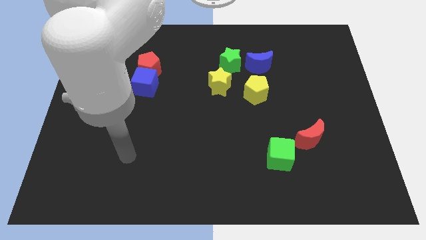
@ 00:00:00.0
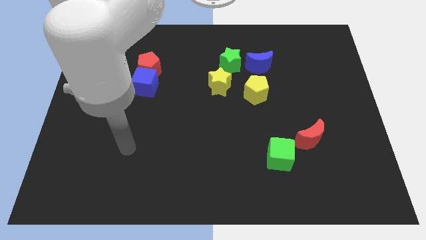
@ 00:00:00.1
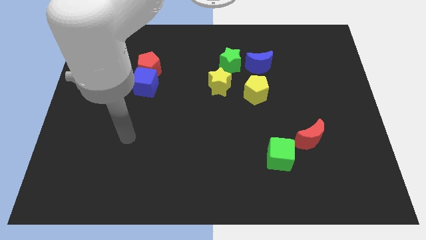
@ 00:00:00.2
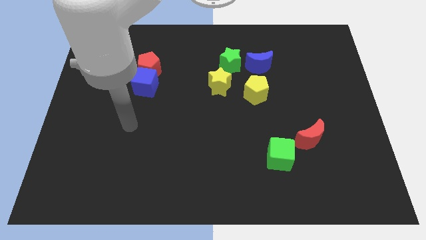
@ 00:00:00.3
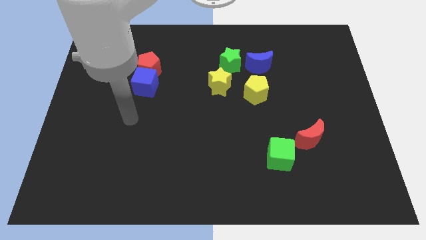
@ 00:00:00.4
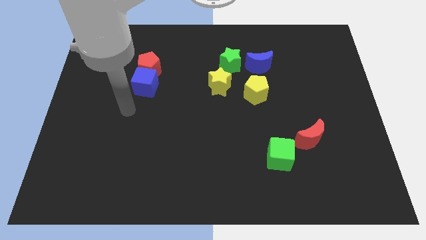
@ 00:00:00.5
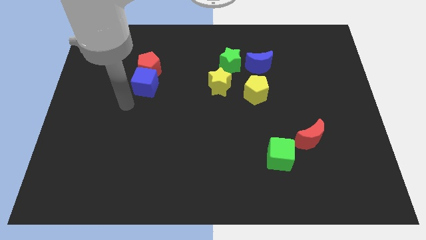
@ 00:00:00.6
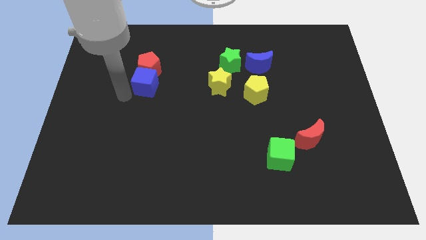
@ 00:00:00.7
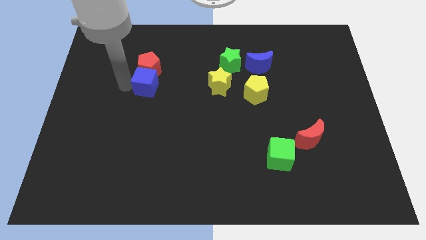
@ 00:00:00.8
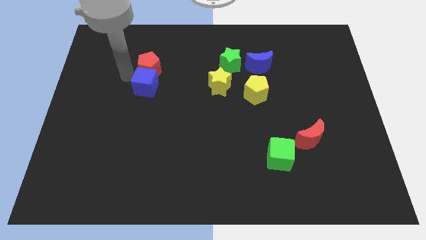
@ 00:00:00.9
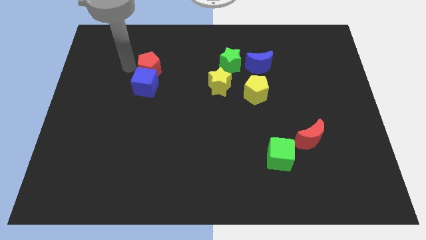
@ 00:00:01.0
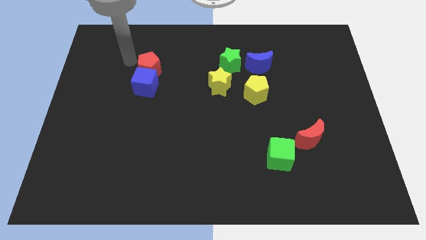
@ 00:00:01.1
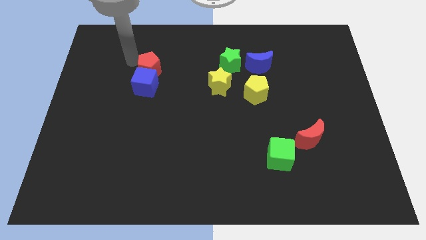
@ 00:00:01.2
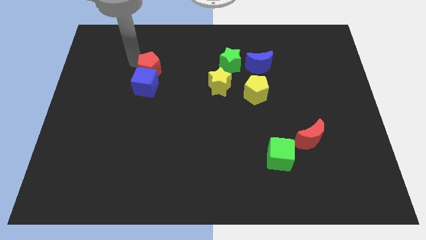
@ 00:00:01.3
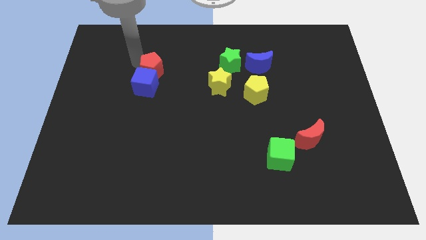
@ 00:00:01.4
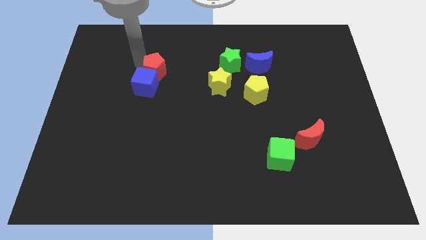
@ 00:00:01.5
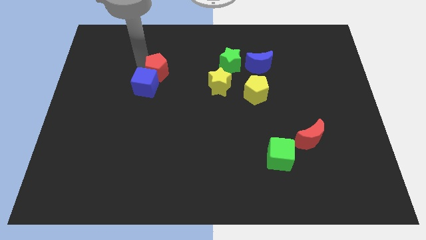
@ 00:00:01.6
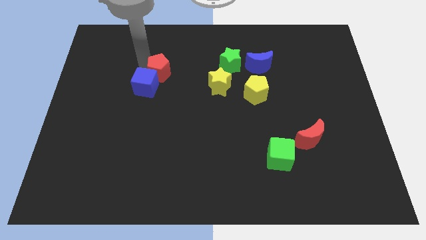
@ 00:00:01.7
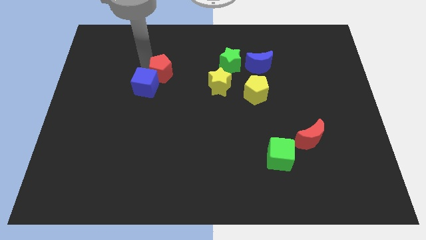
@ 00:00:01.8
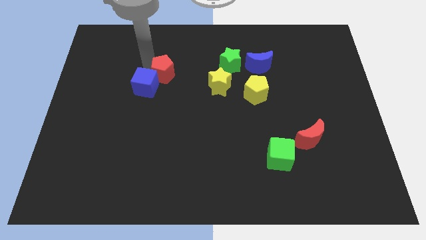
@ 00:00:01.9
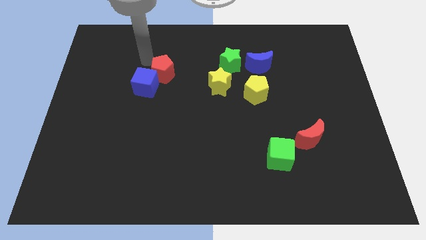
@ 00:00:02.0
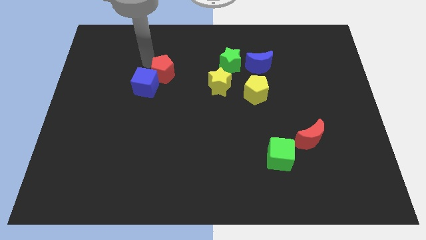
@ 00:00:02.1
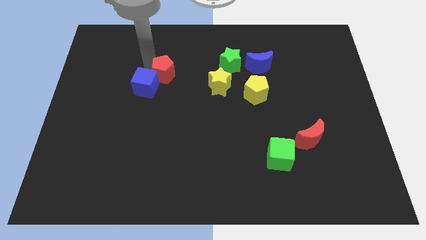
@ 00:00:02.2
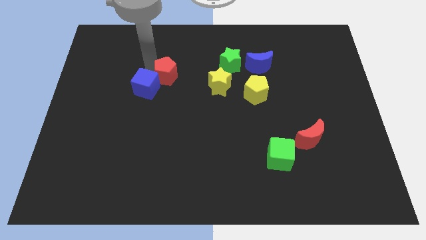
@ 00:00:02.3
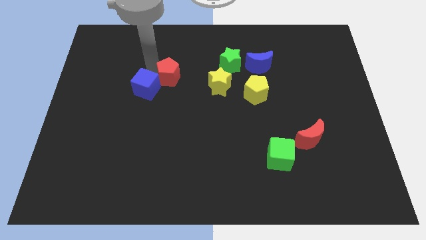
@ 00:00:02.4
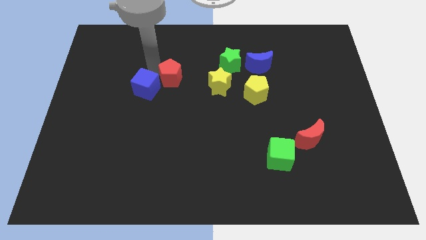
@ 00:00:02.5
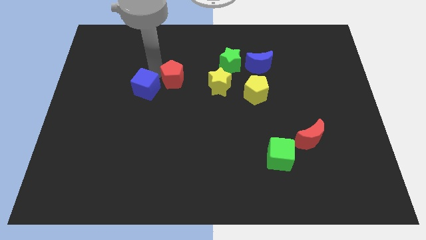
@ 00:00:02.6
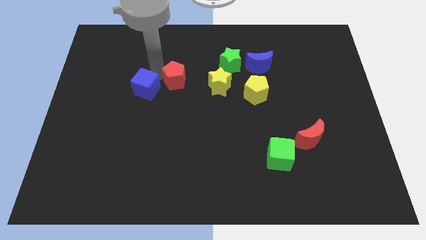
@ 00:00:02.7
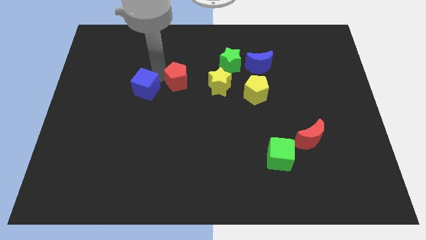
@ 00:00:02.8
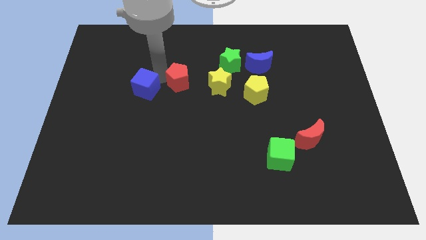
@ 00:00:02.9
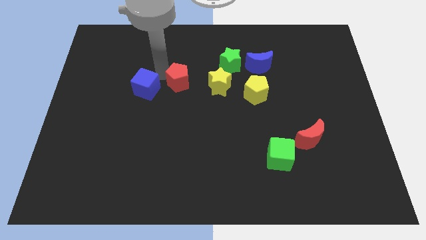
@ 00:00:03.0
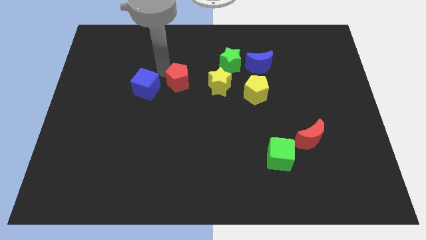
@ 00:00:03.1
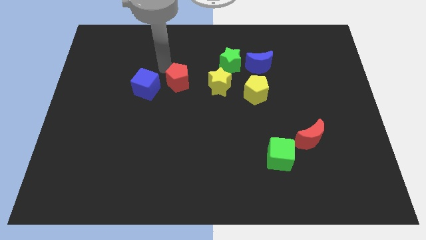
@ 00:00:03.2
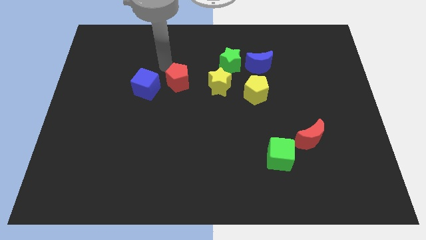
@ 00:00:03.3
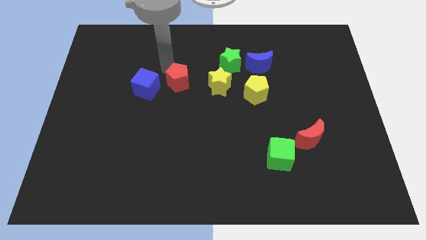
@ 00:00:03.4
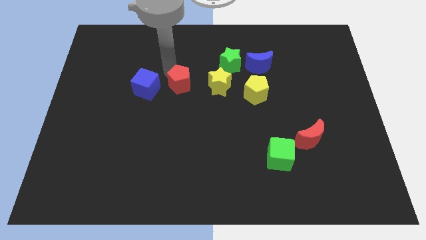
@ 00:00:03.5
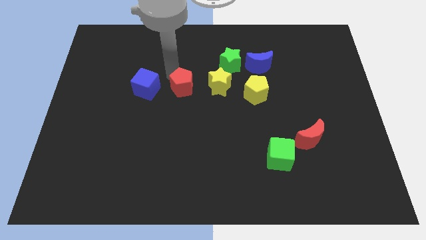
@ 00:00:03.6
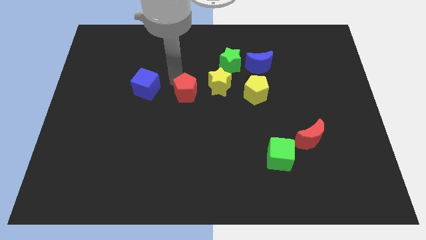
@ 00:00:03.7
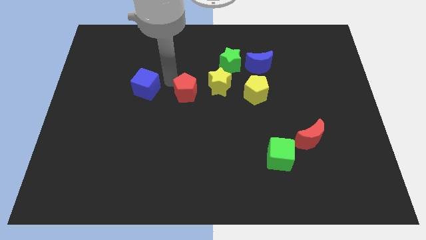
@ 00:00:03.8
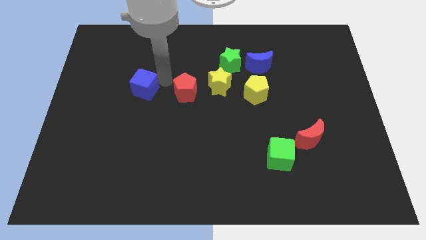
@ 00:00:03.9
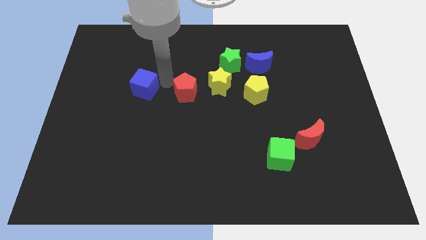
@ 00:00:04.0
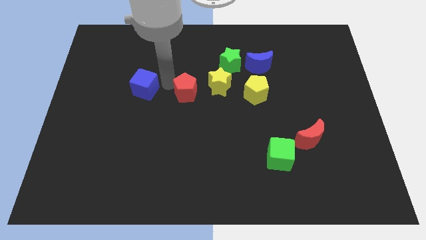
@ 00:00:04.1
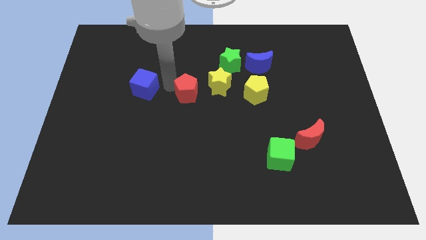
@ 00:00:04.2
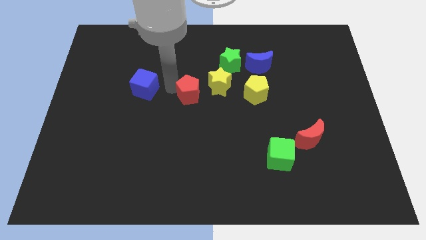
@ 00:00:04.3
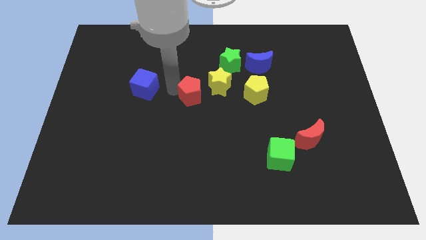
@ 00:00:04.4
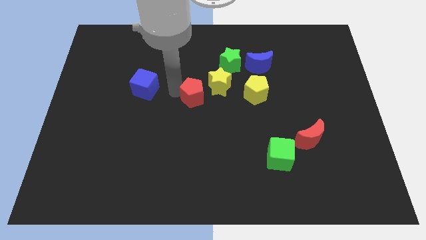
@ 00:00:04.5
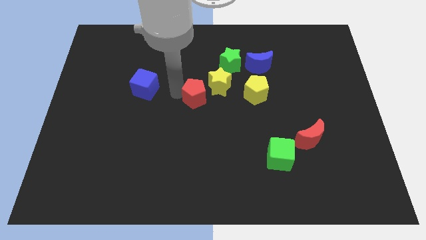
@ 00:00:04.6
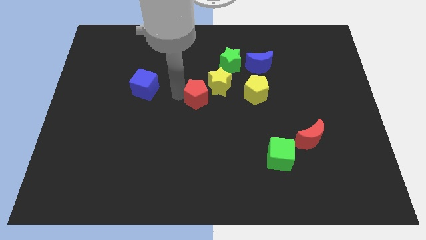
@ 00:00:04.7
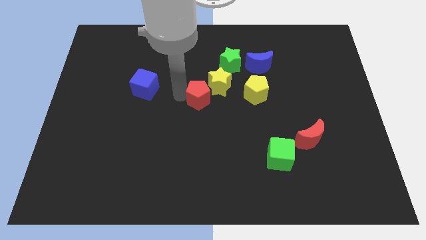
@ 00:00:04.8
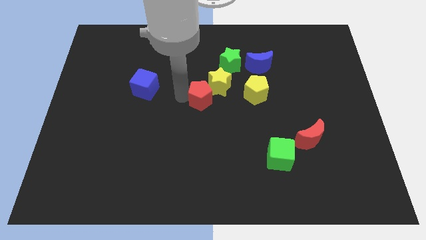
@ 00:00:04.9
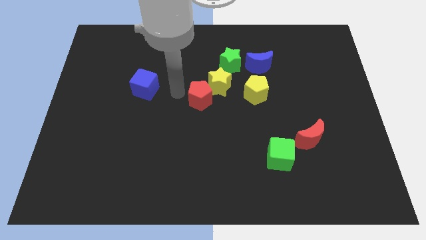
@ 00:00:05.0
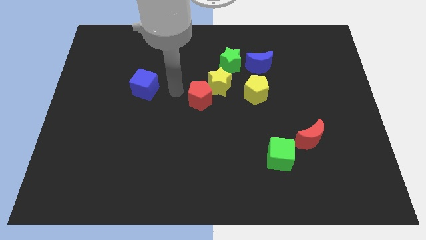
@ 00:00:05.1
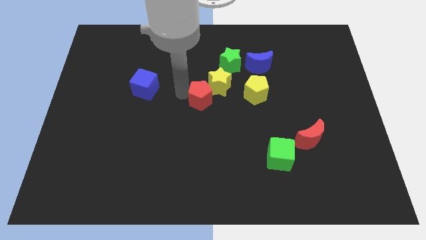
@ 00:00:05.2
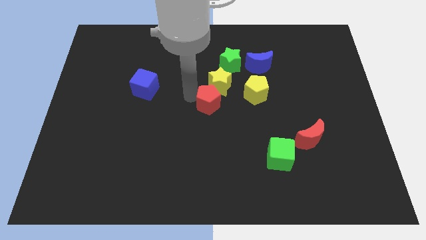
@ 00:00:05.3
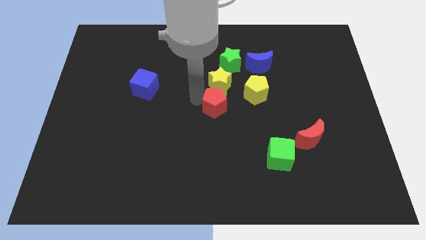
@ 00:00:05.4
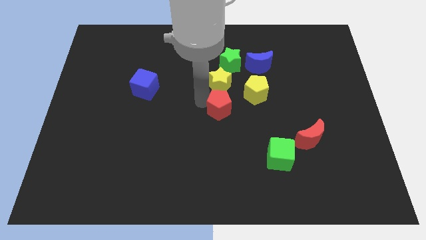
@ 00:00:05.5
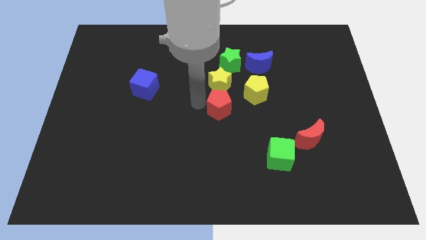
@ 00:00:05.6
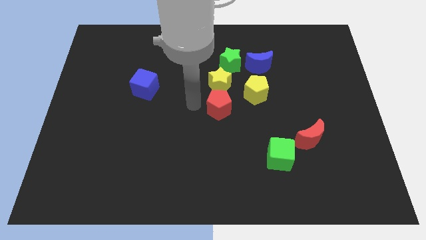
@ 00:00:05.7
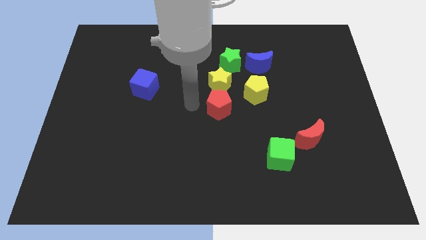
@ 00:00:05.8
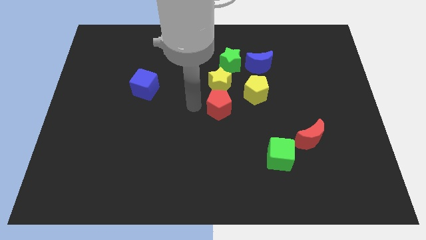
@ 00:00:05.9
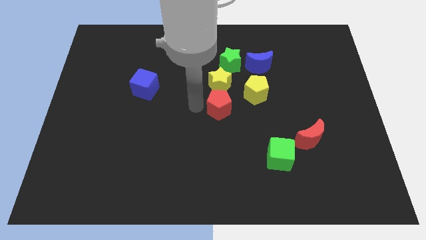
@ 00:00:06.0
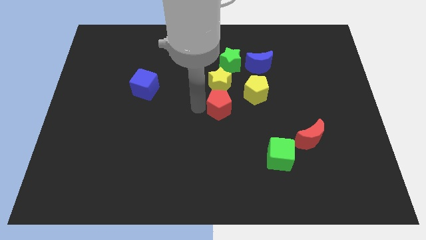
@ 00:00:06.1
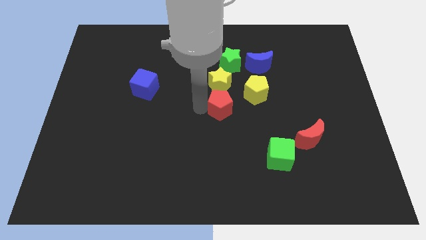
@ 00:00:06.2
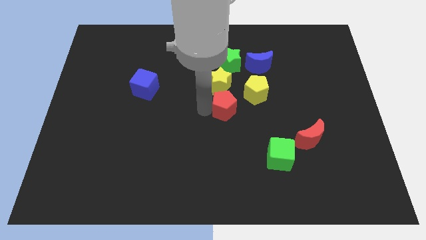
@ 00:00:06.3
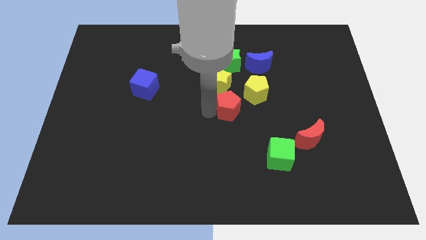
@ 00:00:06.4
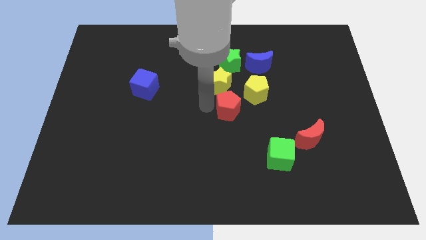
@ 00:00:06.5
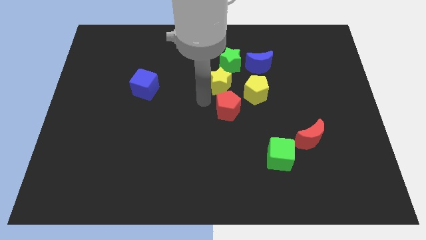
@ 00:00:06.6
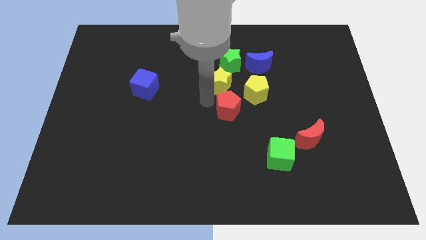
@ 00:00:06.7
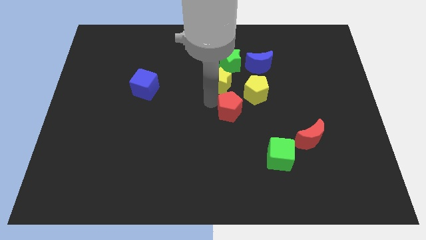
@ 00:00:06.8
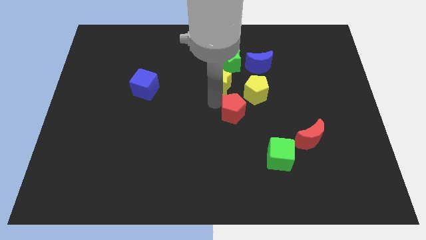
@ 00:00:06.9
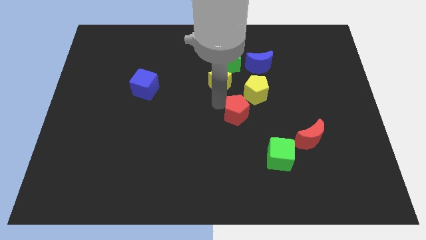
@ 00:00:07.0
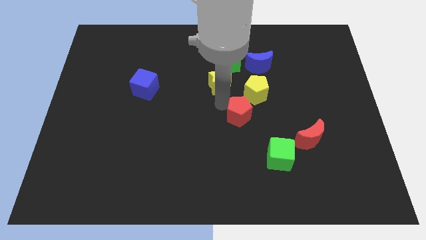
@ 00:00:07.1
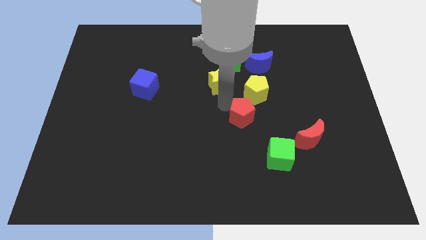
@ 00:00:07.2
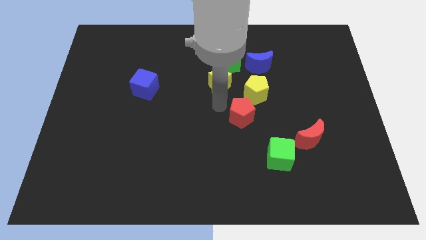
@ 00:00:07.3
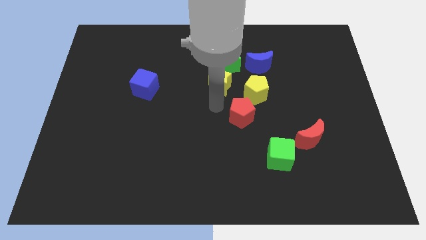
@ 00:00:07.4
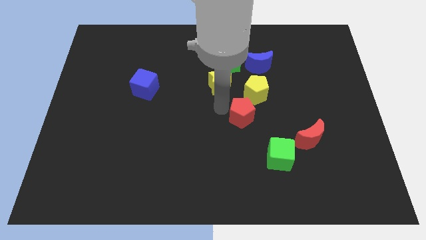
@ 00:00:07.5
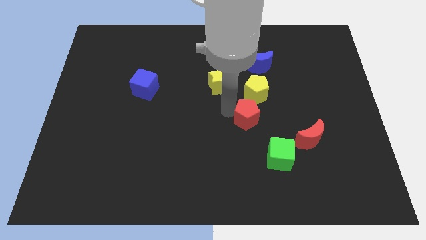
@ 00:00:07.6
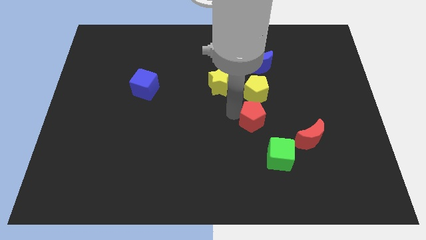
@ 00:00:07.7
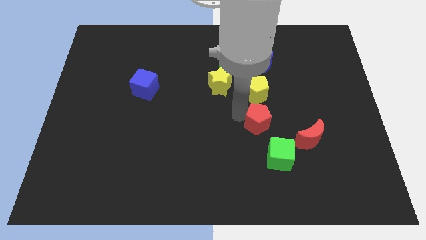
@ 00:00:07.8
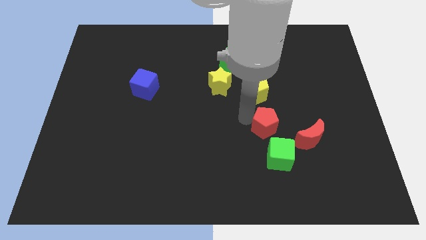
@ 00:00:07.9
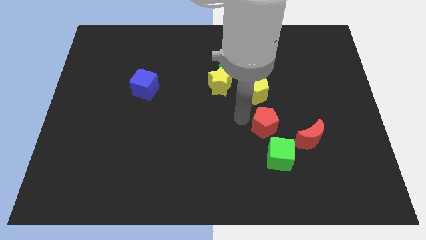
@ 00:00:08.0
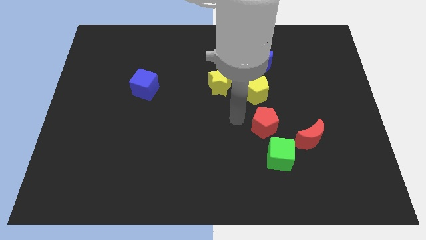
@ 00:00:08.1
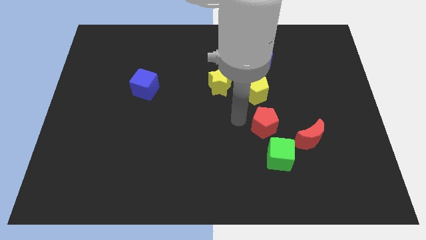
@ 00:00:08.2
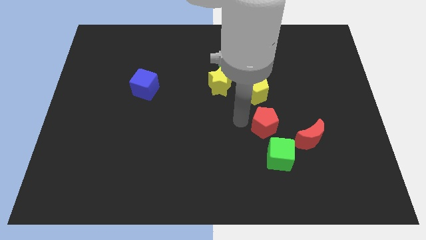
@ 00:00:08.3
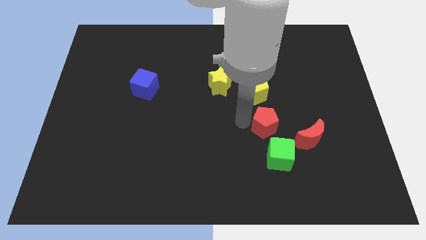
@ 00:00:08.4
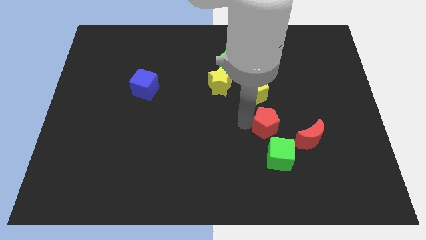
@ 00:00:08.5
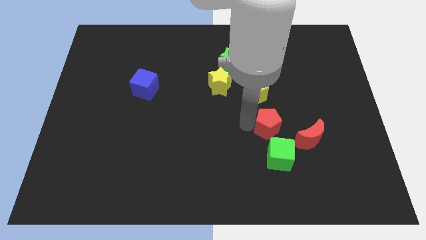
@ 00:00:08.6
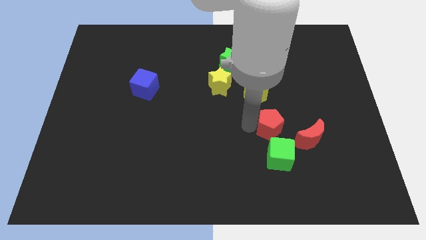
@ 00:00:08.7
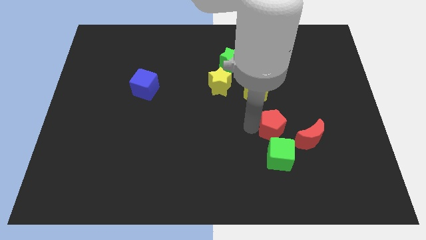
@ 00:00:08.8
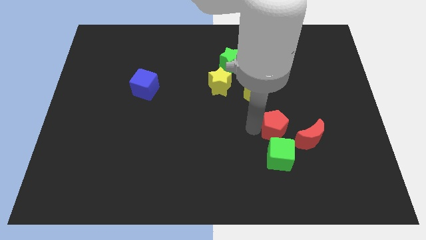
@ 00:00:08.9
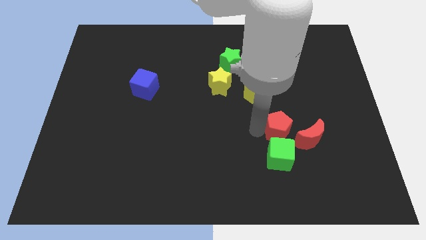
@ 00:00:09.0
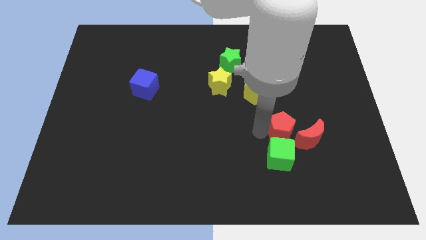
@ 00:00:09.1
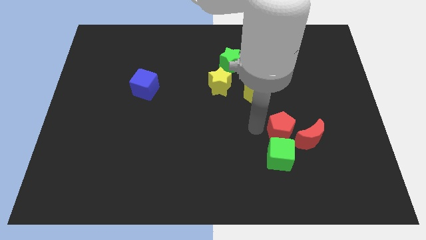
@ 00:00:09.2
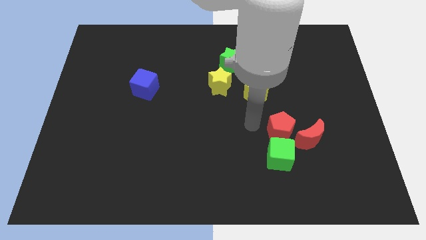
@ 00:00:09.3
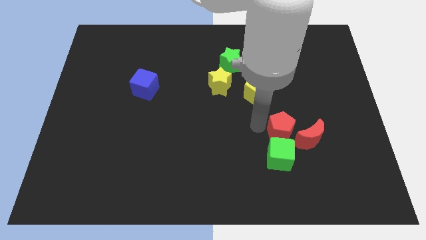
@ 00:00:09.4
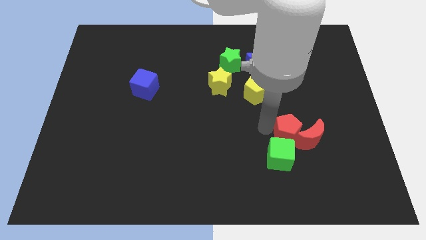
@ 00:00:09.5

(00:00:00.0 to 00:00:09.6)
put the red pentagon close to the red moon
